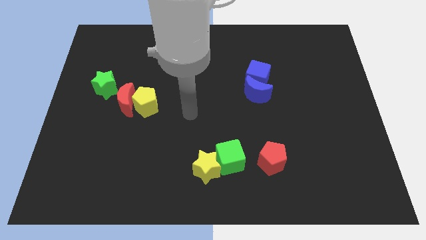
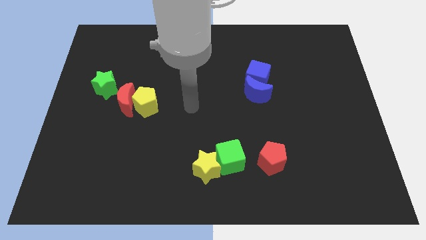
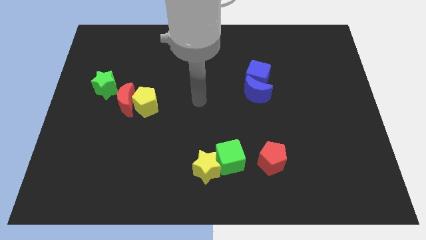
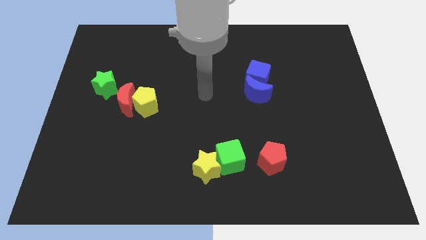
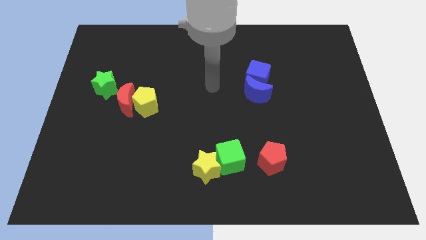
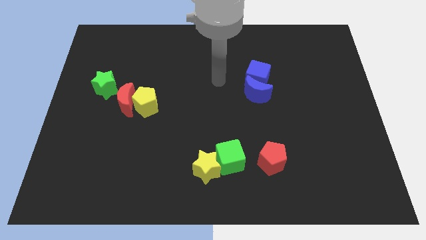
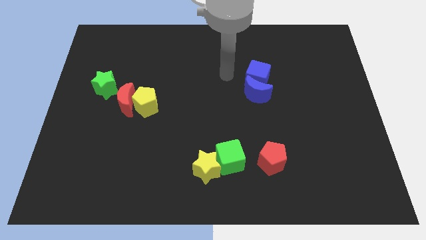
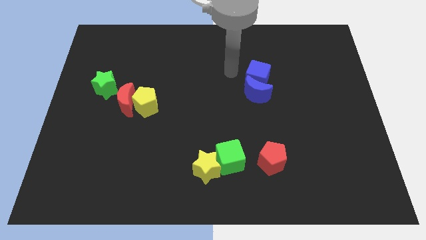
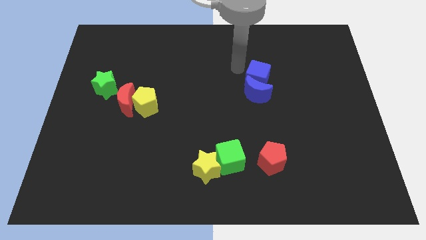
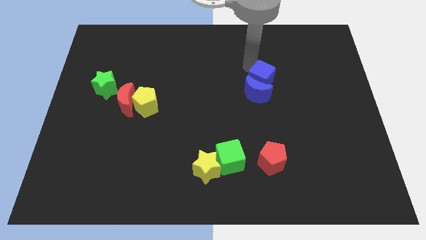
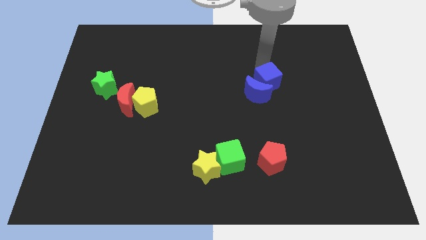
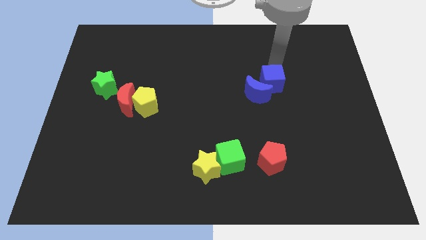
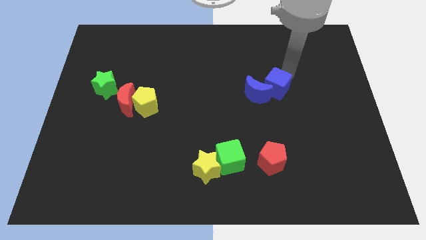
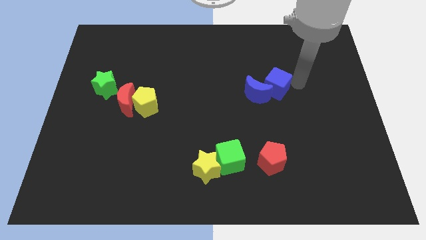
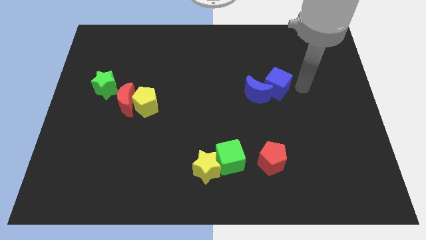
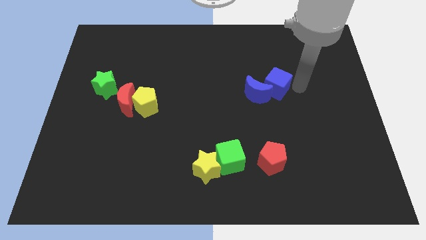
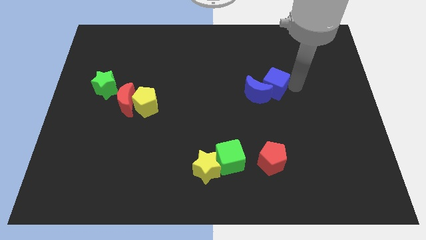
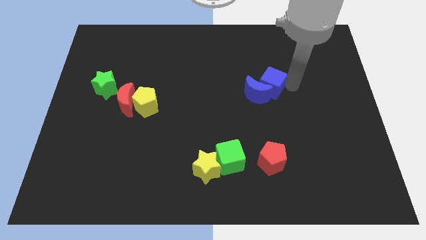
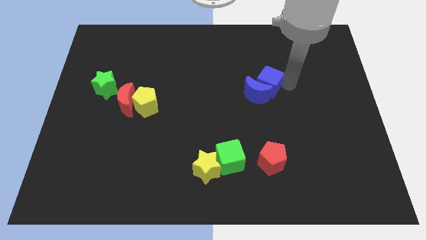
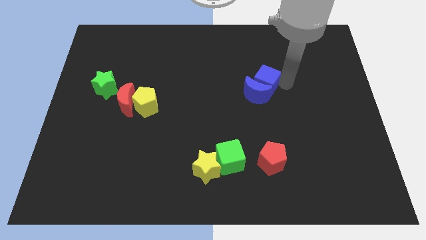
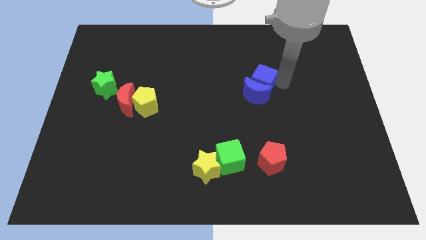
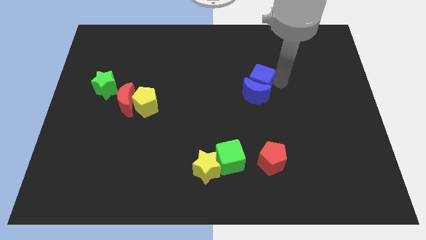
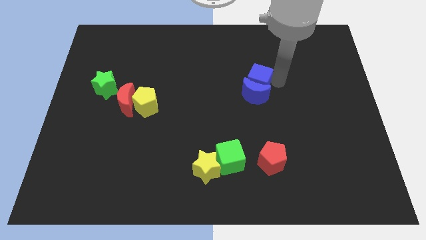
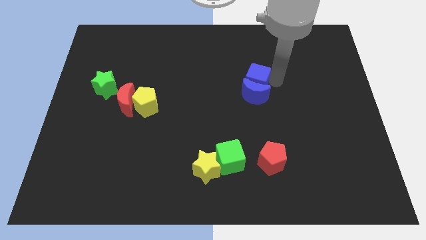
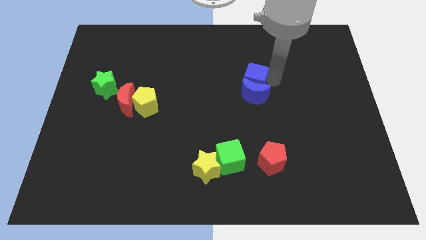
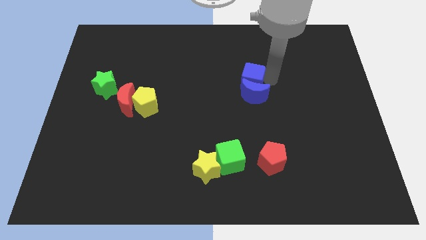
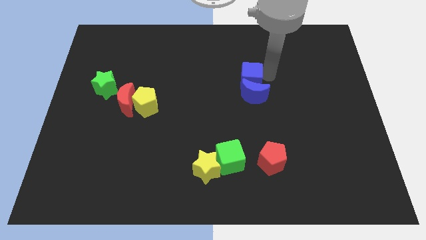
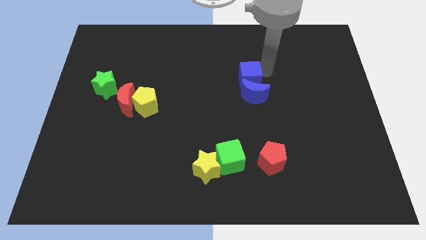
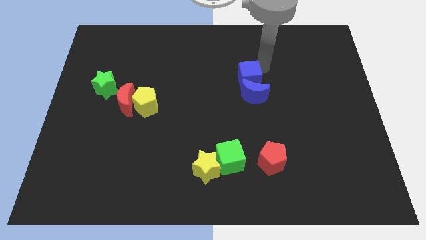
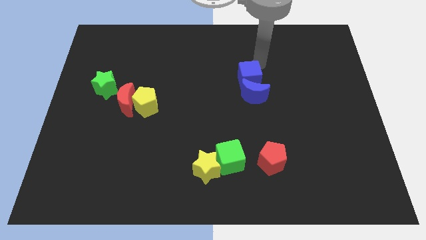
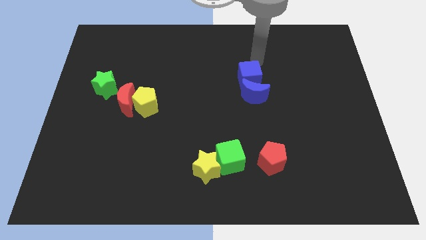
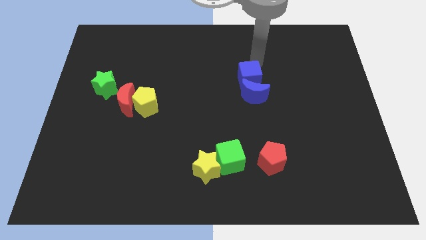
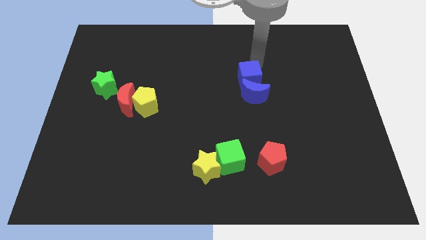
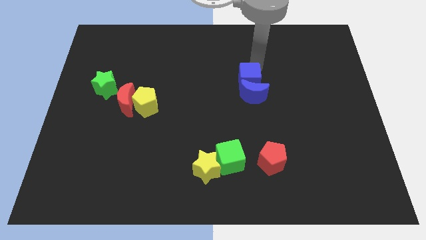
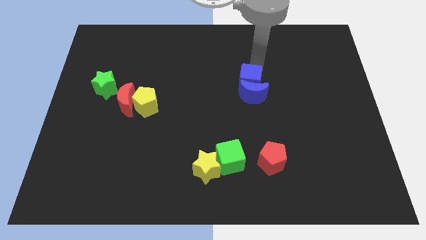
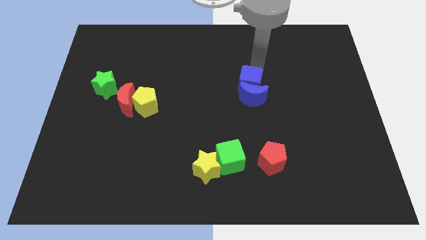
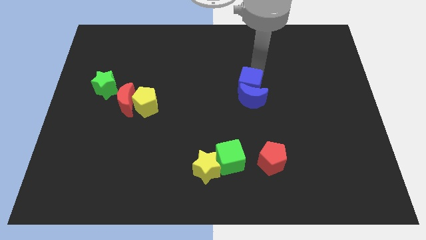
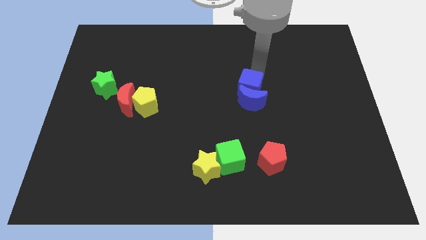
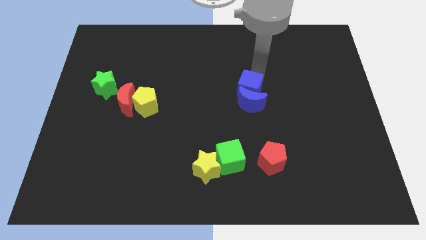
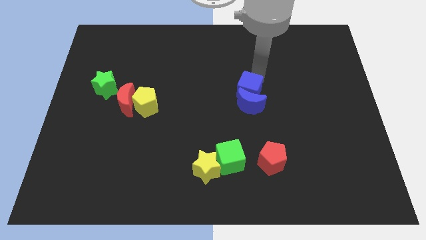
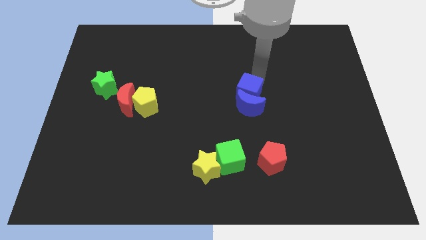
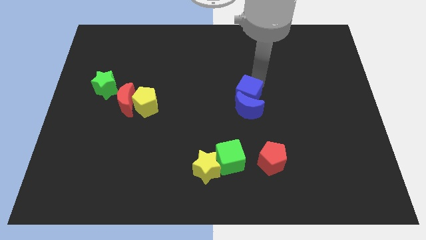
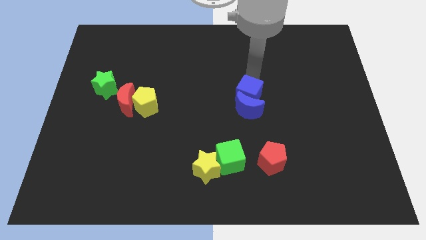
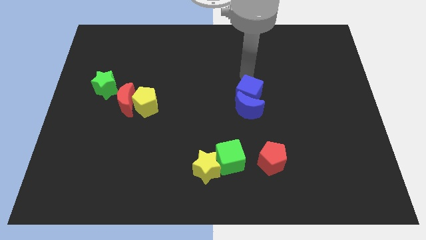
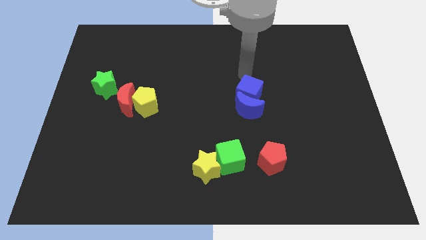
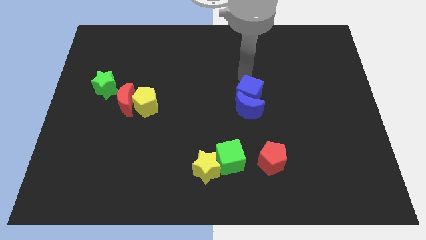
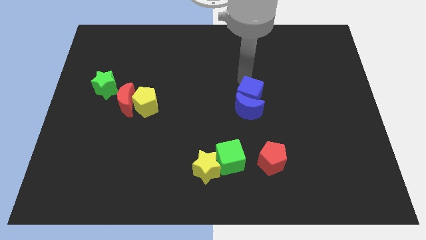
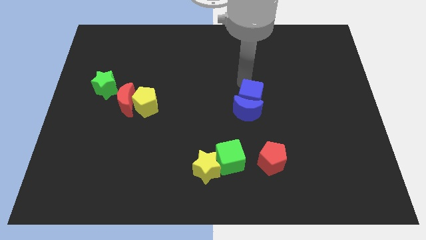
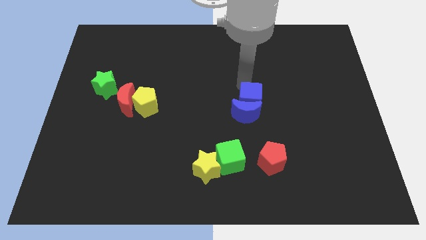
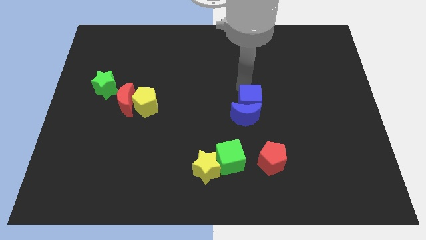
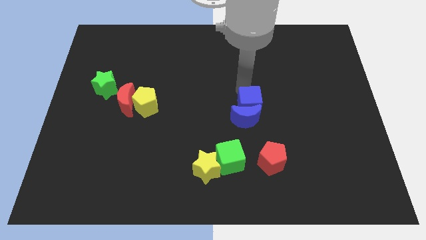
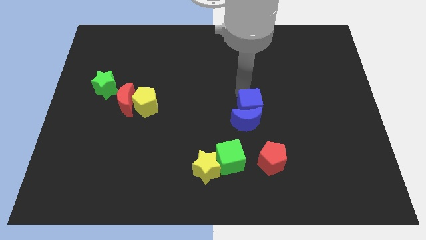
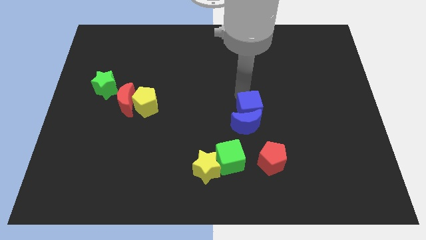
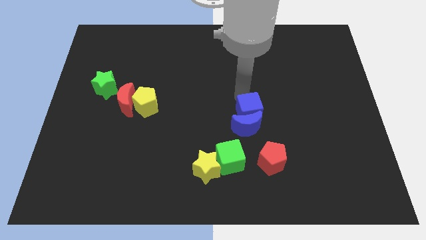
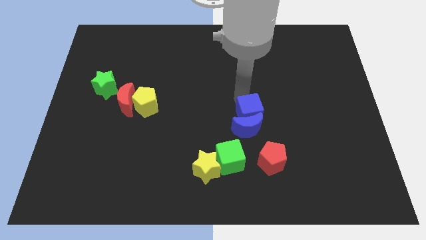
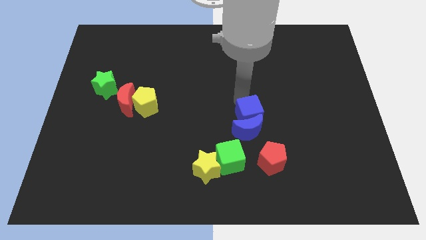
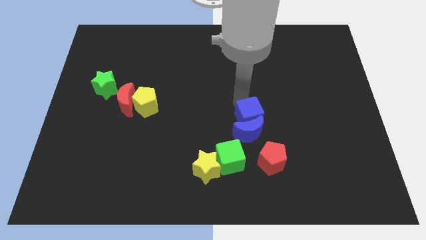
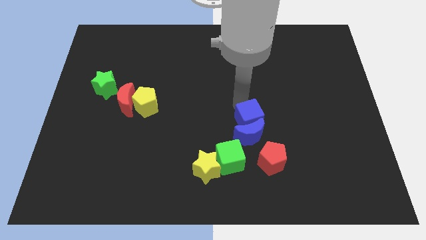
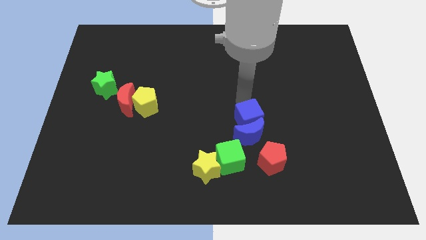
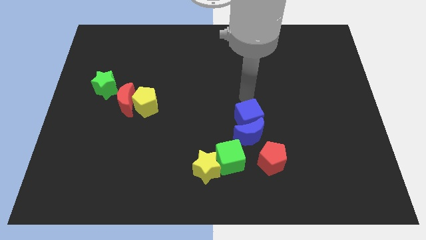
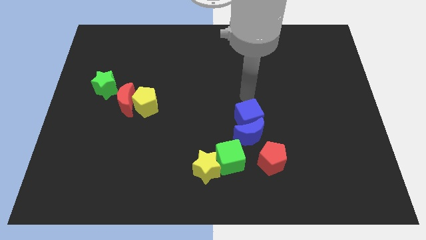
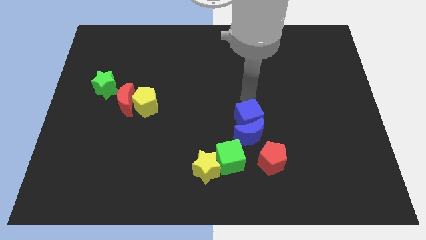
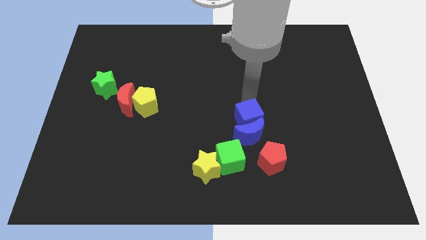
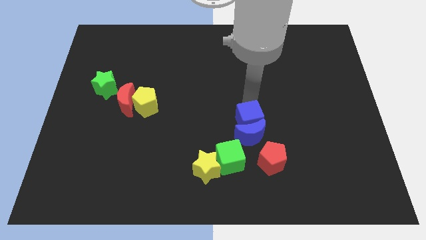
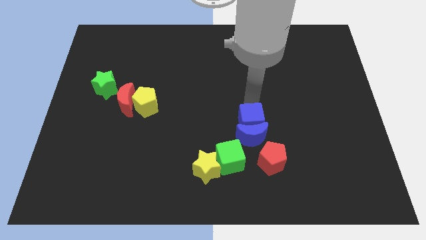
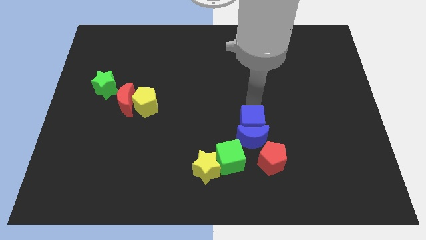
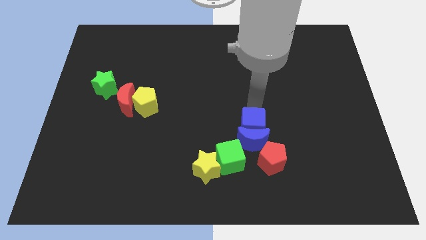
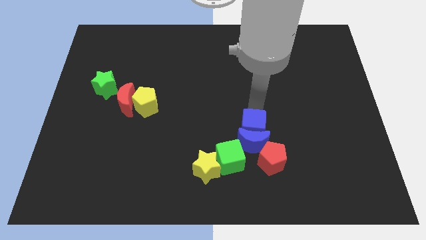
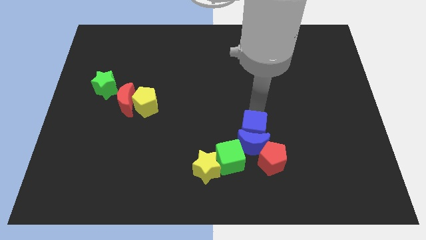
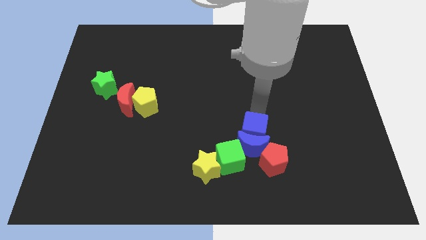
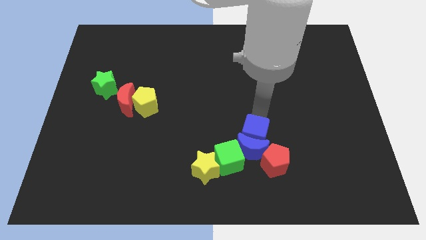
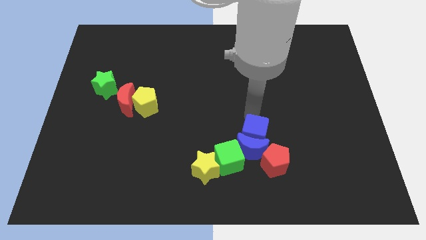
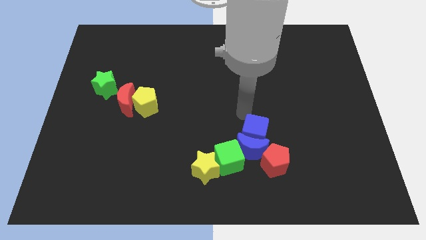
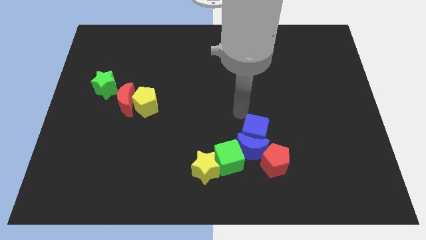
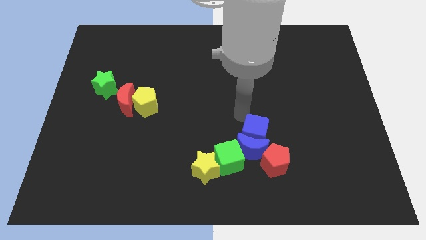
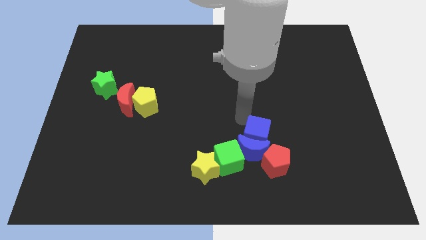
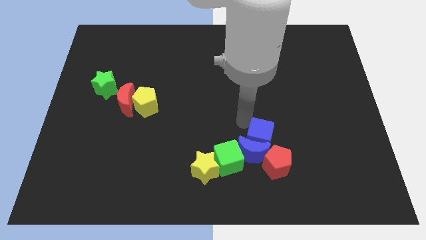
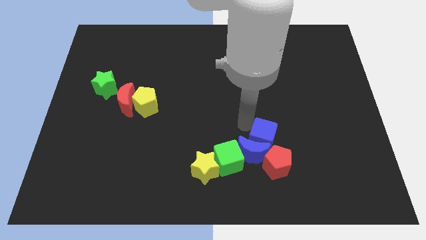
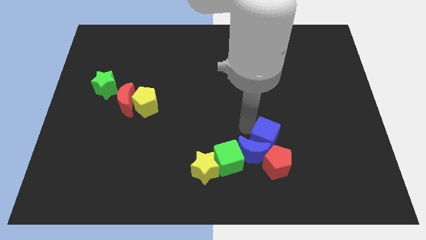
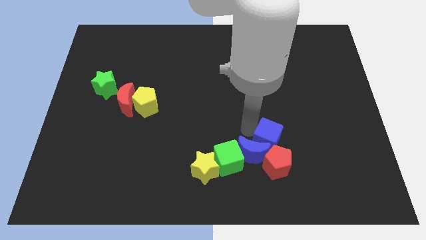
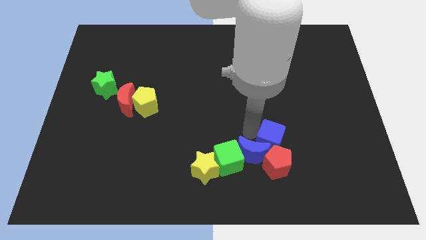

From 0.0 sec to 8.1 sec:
put the blue cube to the red pentagon
